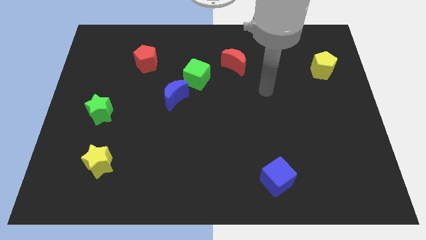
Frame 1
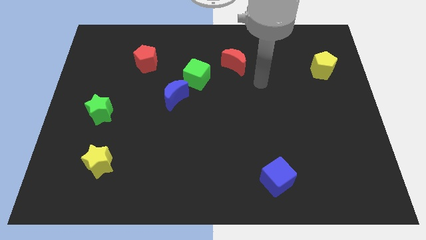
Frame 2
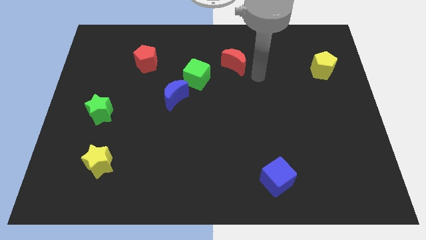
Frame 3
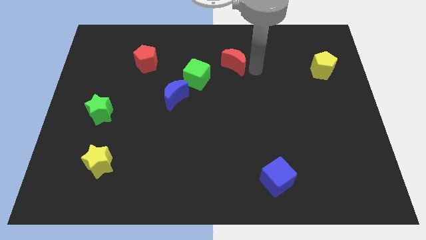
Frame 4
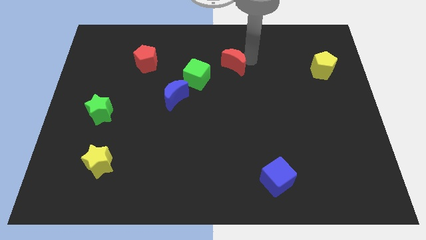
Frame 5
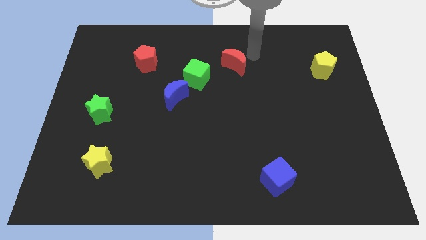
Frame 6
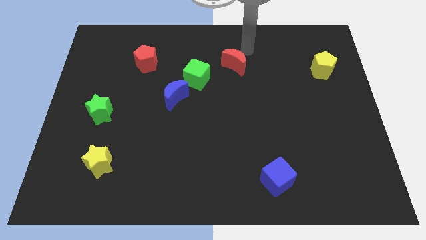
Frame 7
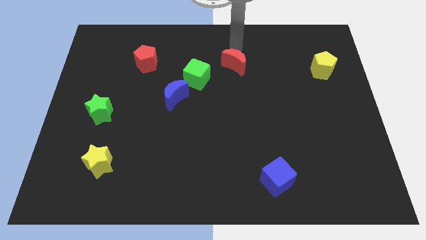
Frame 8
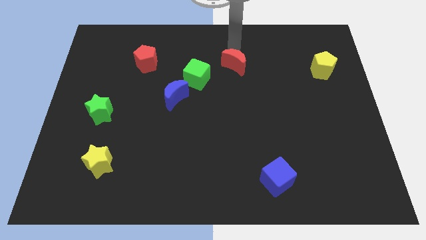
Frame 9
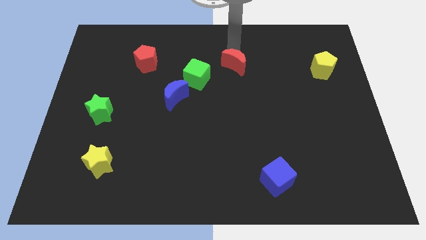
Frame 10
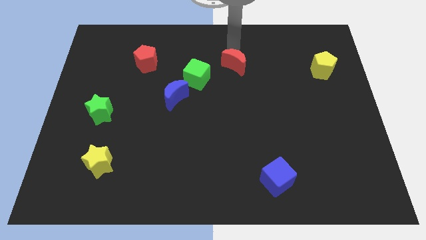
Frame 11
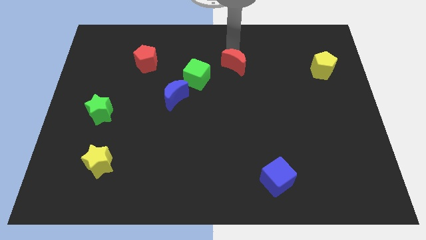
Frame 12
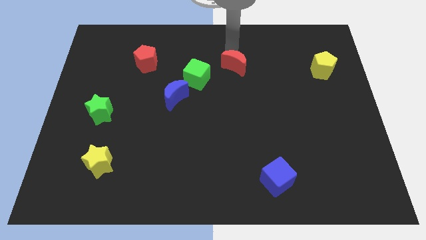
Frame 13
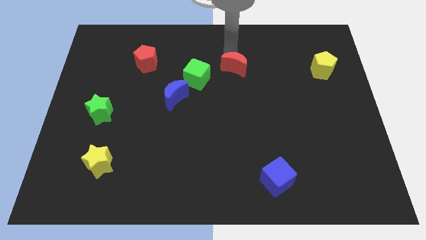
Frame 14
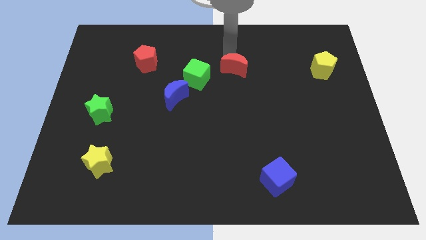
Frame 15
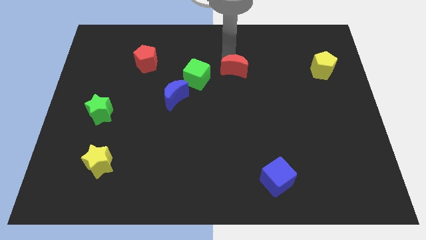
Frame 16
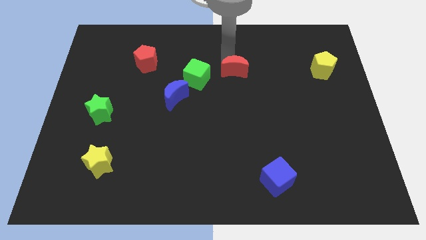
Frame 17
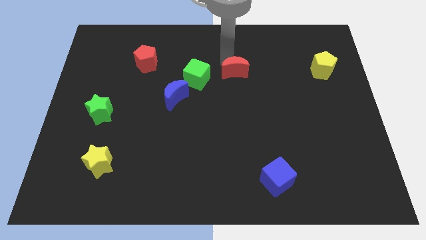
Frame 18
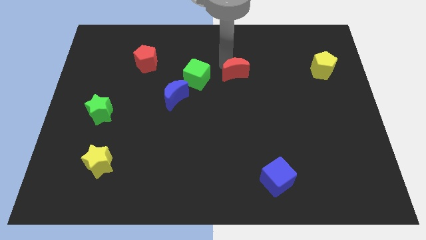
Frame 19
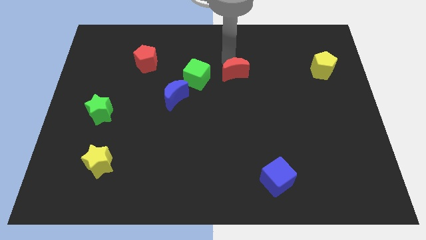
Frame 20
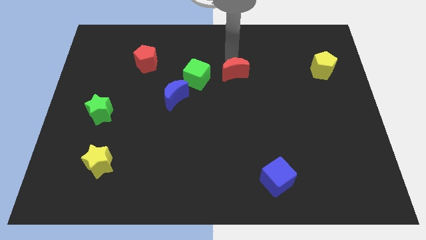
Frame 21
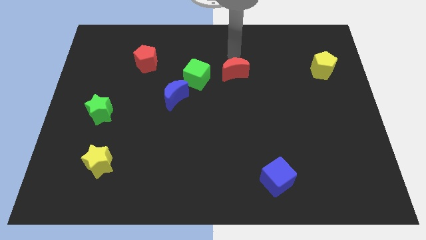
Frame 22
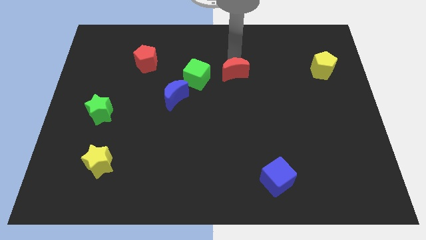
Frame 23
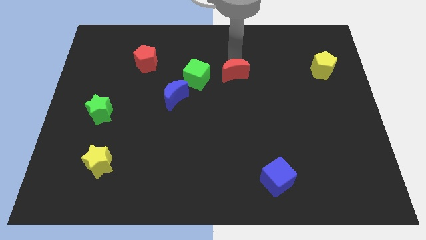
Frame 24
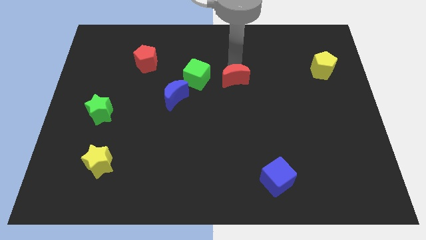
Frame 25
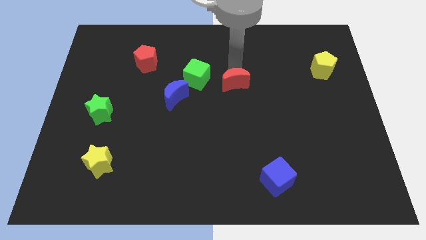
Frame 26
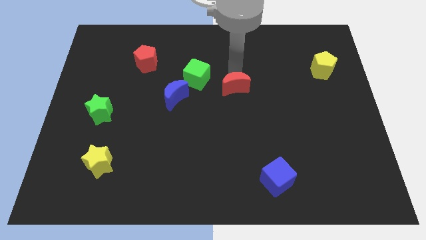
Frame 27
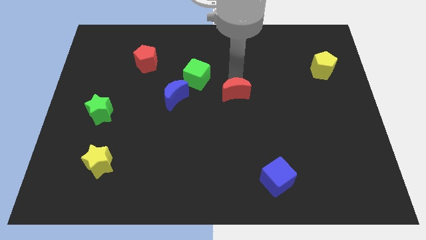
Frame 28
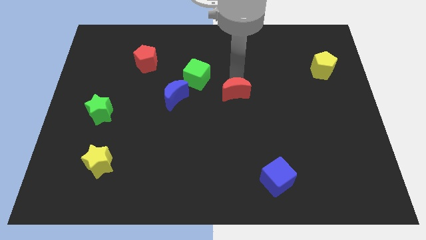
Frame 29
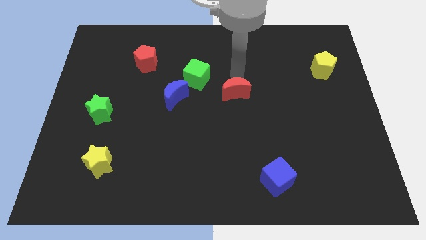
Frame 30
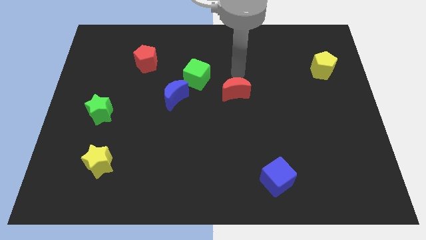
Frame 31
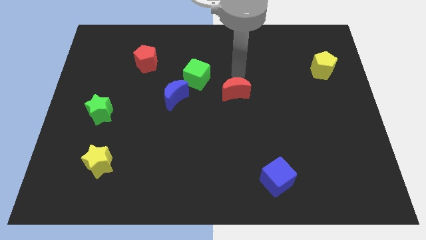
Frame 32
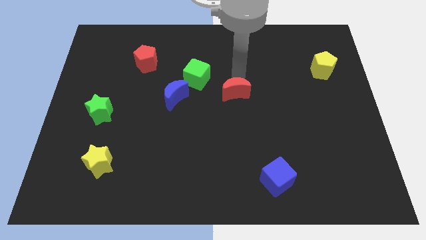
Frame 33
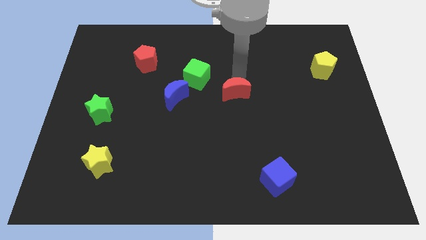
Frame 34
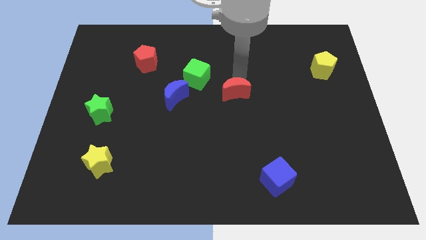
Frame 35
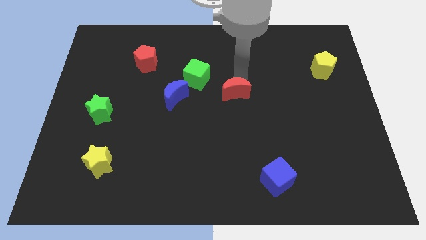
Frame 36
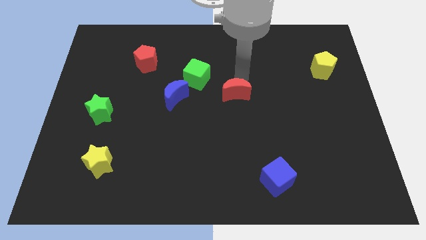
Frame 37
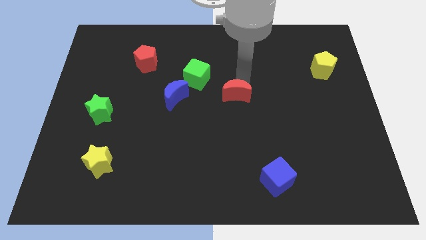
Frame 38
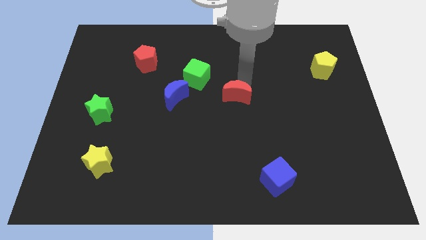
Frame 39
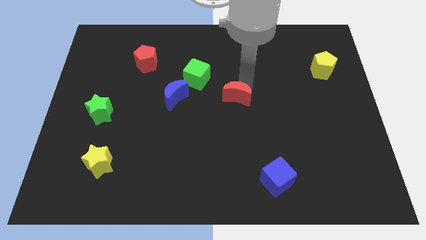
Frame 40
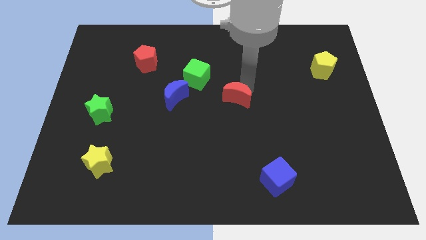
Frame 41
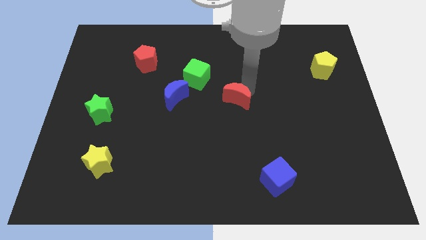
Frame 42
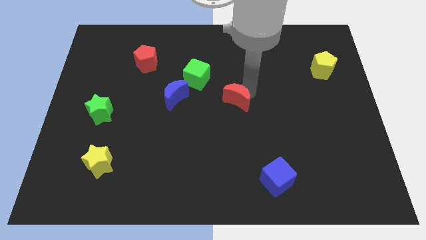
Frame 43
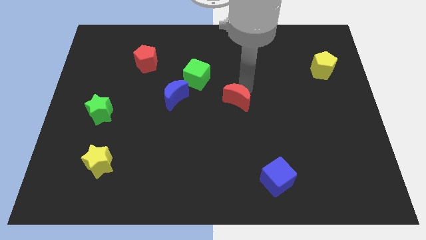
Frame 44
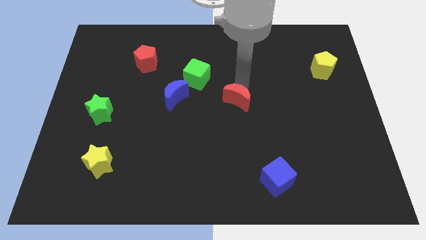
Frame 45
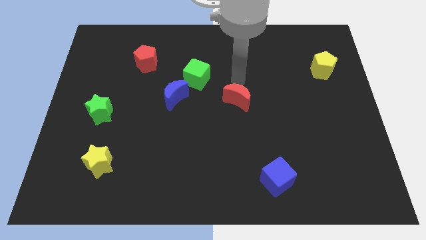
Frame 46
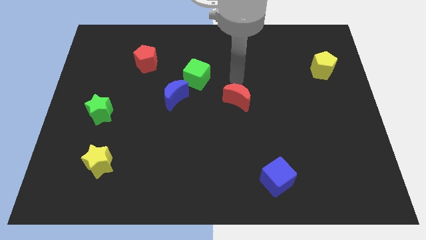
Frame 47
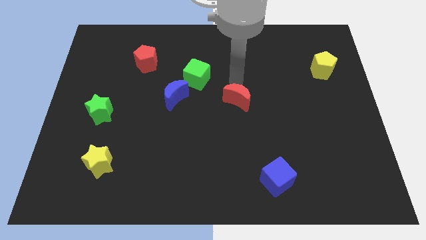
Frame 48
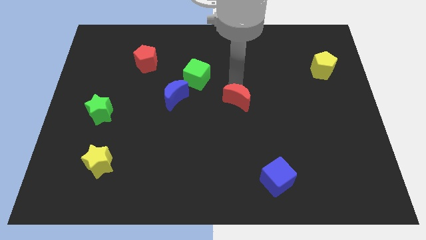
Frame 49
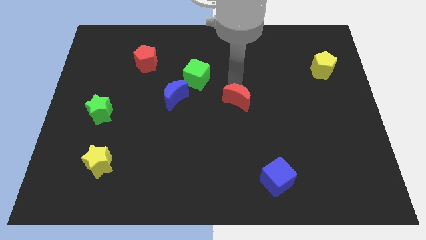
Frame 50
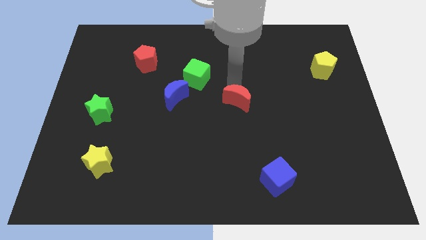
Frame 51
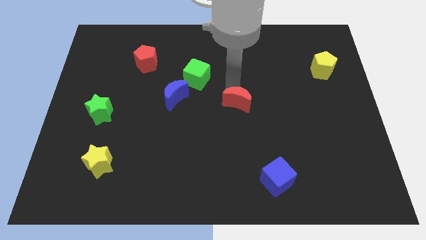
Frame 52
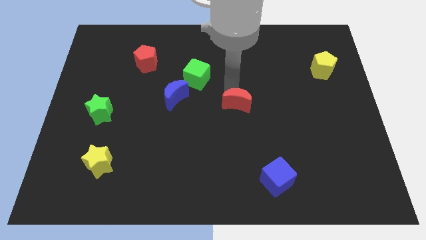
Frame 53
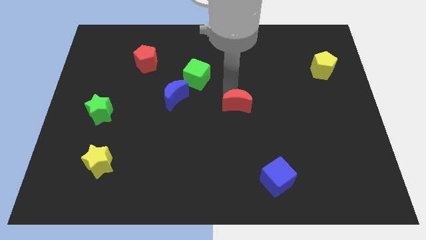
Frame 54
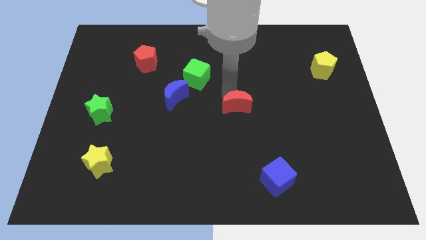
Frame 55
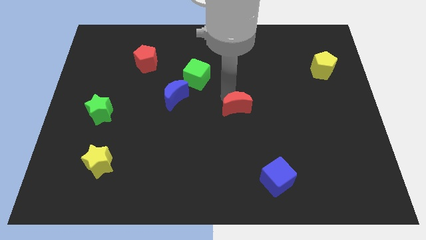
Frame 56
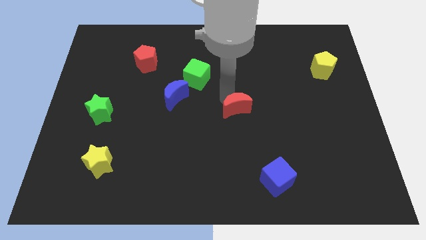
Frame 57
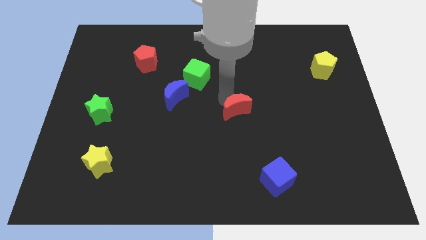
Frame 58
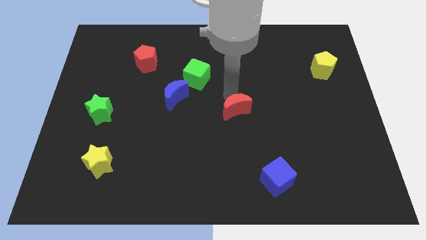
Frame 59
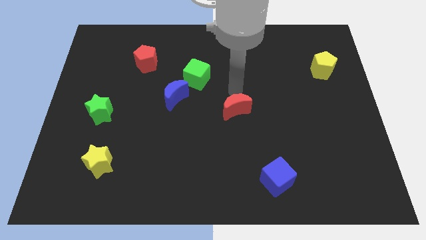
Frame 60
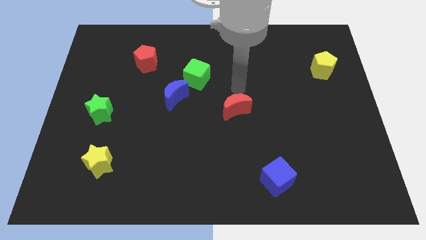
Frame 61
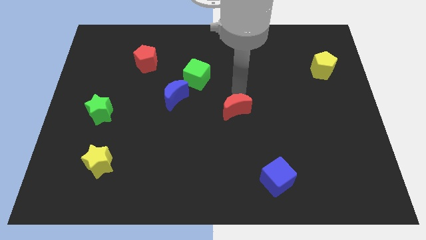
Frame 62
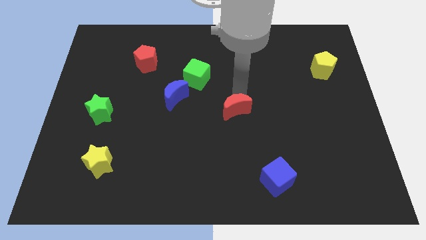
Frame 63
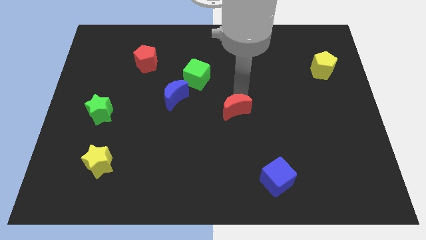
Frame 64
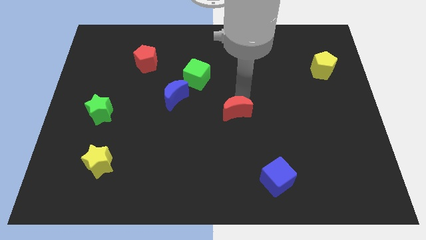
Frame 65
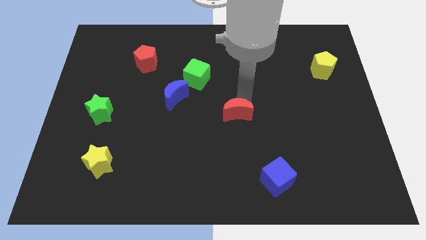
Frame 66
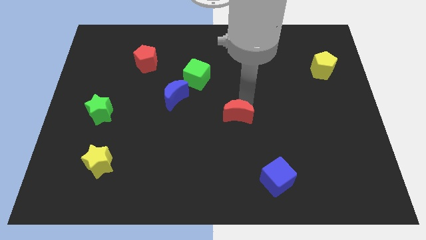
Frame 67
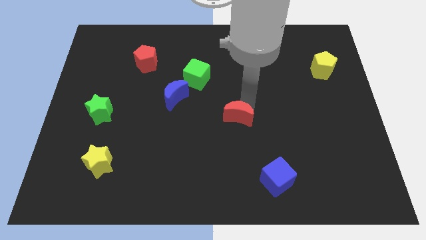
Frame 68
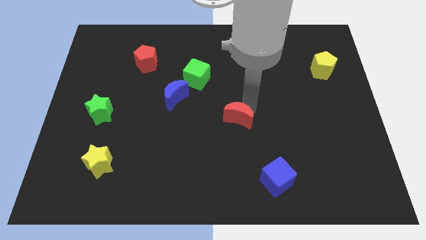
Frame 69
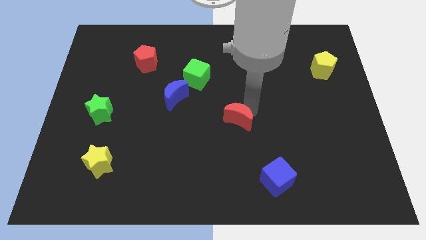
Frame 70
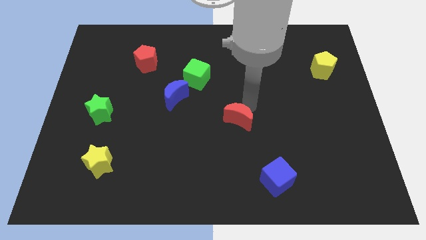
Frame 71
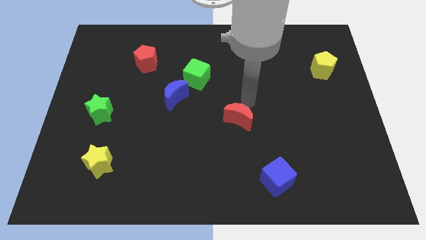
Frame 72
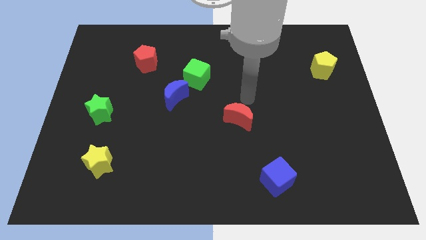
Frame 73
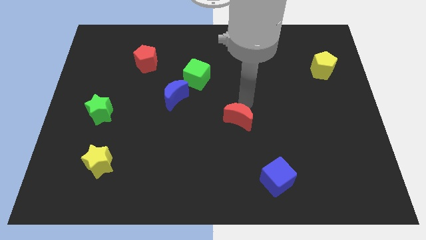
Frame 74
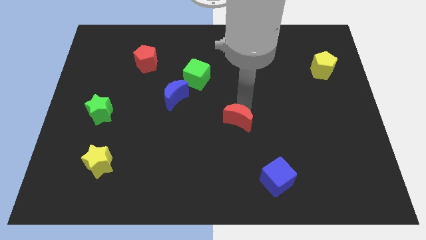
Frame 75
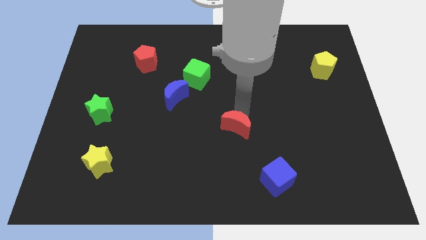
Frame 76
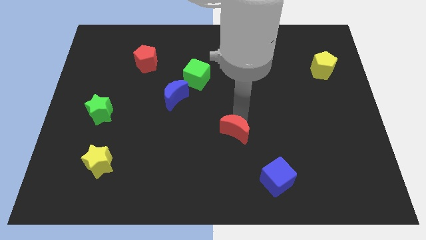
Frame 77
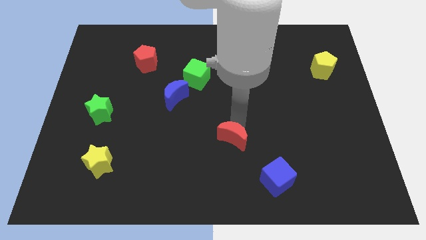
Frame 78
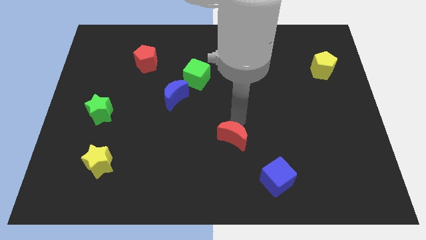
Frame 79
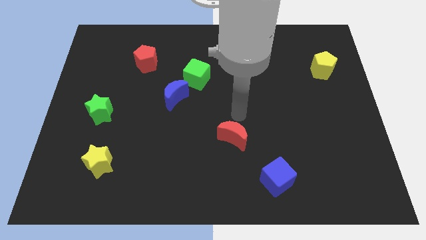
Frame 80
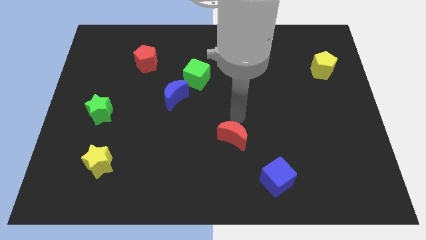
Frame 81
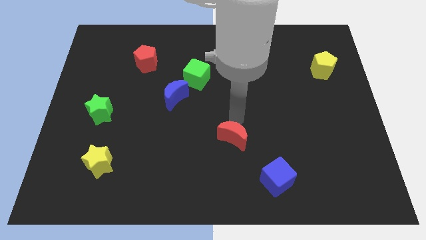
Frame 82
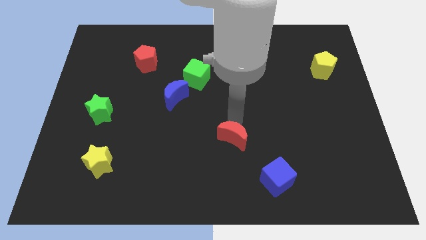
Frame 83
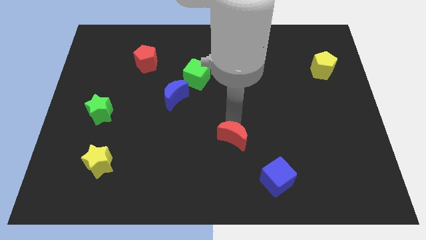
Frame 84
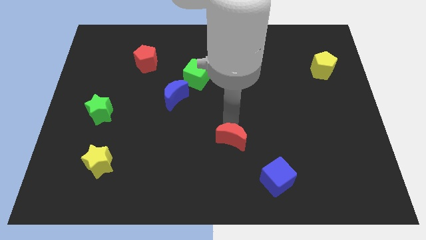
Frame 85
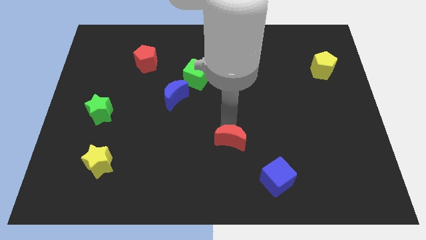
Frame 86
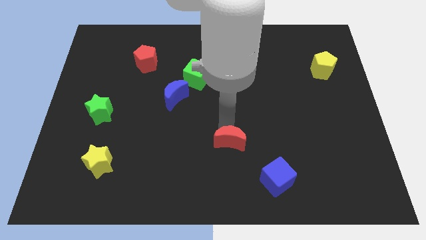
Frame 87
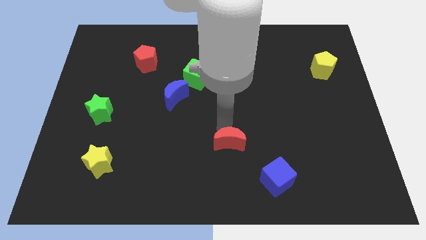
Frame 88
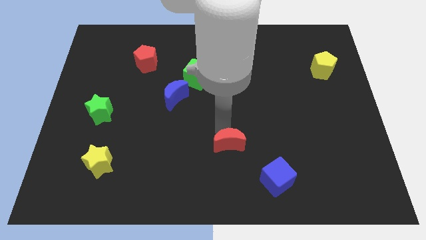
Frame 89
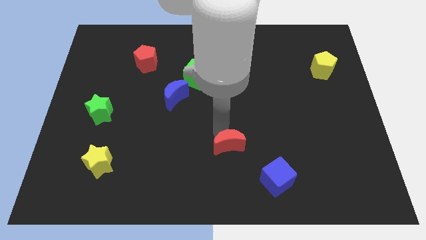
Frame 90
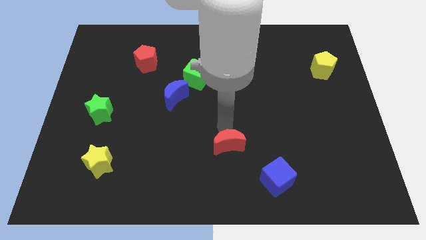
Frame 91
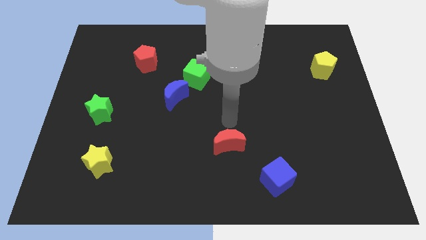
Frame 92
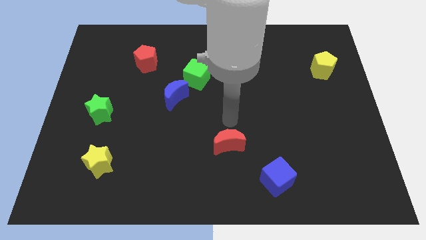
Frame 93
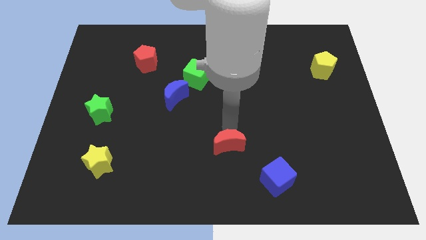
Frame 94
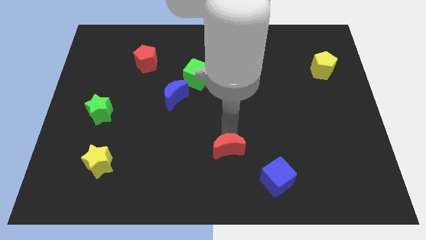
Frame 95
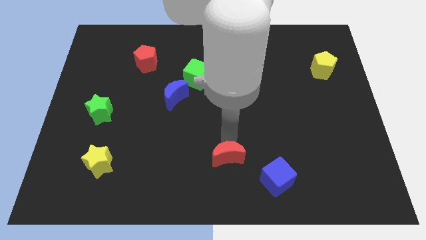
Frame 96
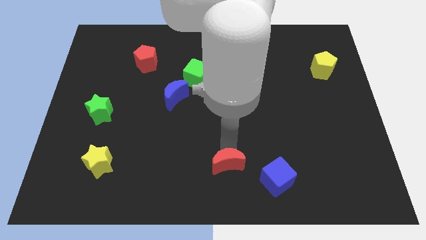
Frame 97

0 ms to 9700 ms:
push the red moon to the left of the blue cube
